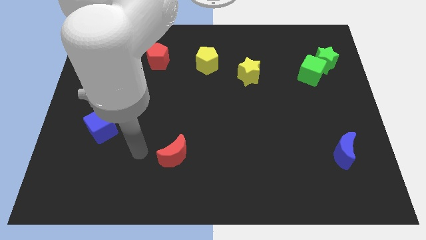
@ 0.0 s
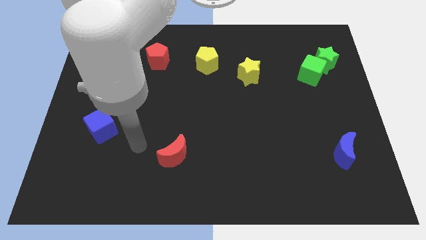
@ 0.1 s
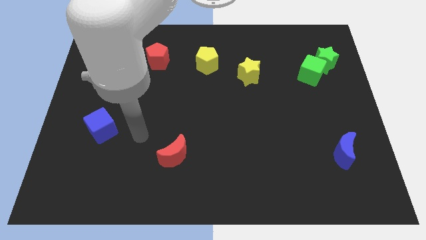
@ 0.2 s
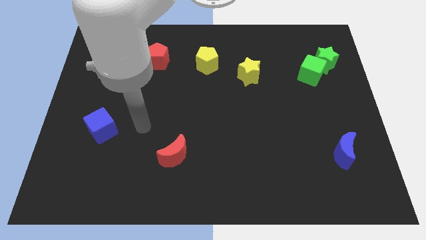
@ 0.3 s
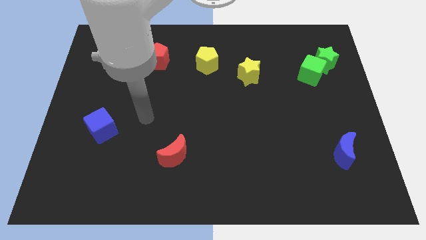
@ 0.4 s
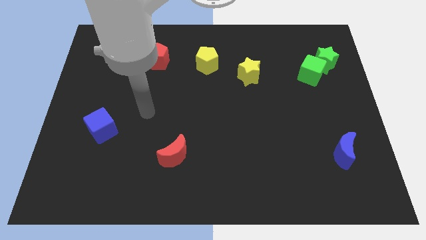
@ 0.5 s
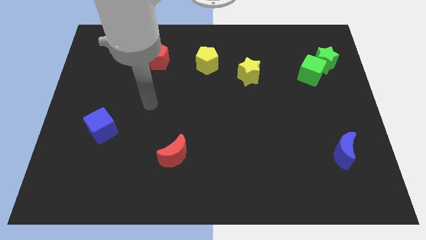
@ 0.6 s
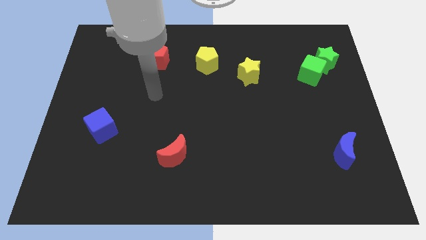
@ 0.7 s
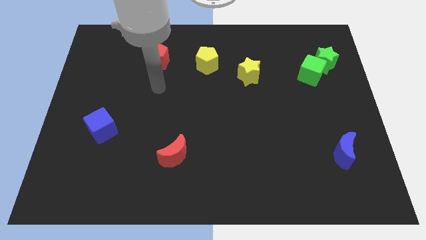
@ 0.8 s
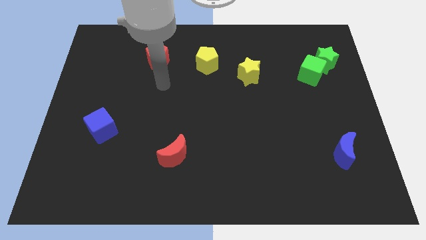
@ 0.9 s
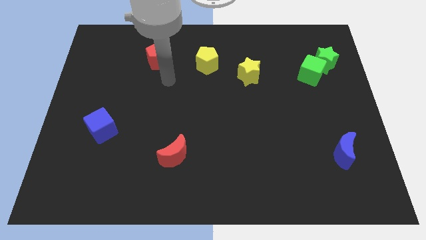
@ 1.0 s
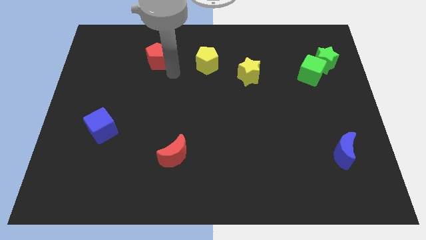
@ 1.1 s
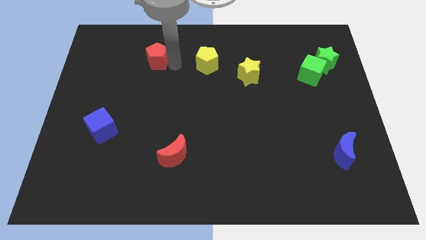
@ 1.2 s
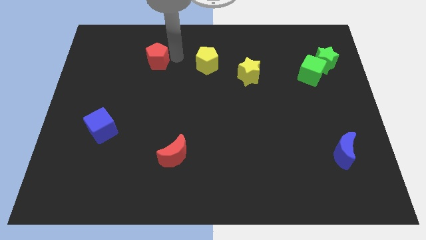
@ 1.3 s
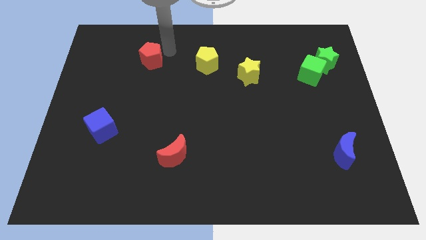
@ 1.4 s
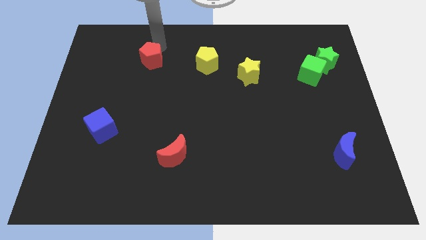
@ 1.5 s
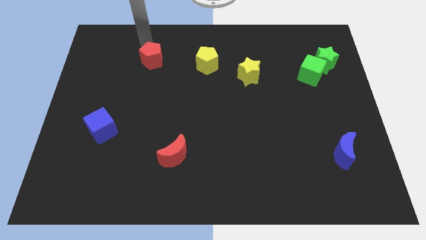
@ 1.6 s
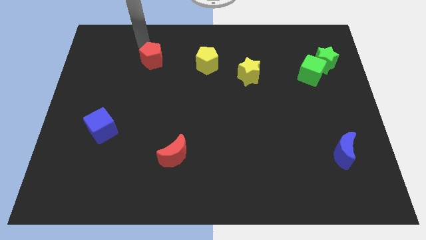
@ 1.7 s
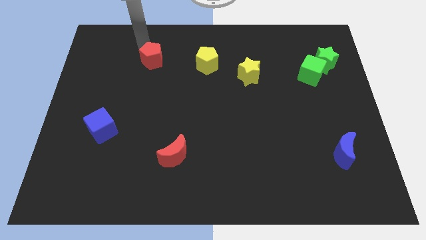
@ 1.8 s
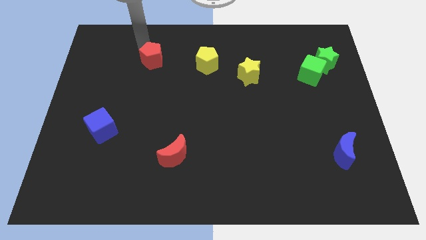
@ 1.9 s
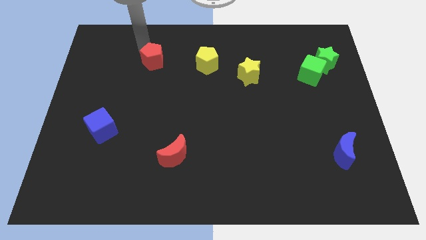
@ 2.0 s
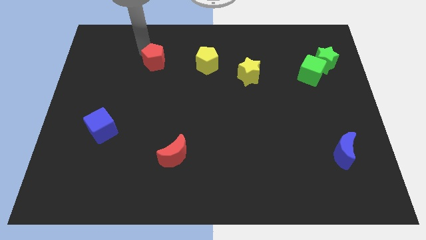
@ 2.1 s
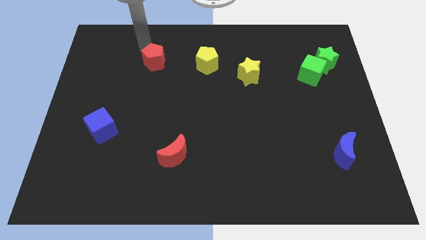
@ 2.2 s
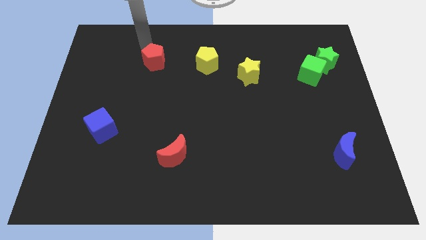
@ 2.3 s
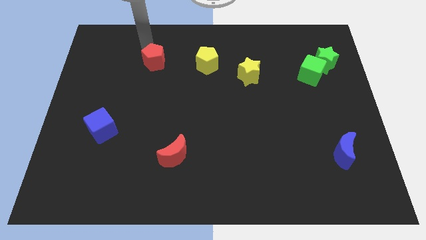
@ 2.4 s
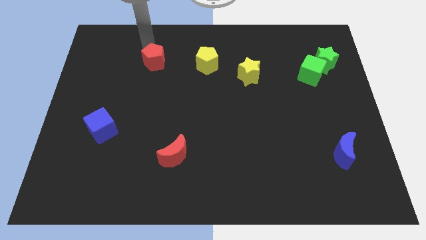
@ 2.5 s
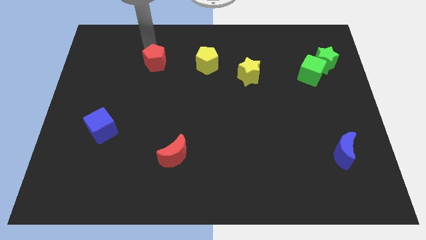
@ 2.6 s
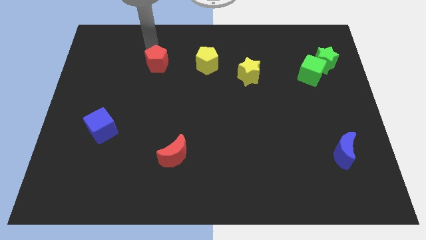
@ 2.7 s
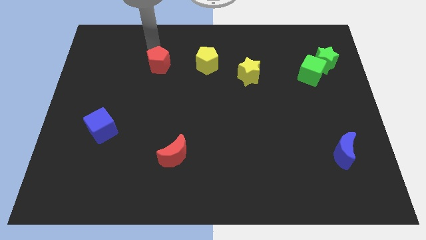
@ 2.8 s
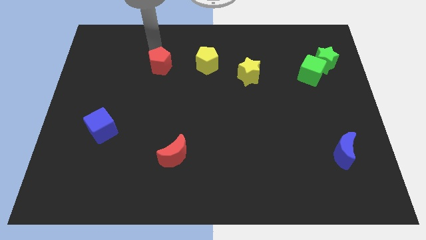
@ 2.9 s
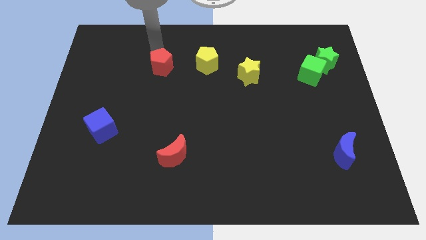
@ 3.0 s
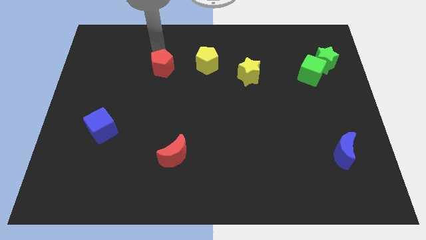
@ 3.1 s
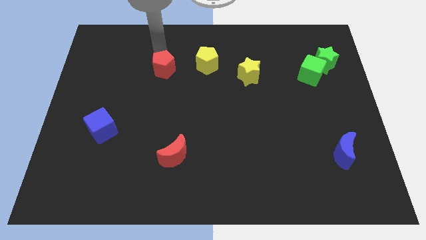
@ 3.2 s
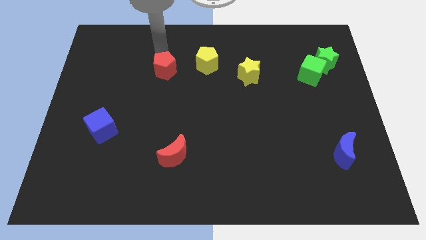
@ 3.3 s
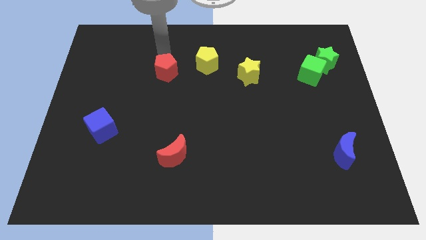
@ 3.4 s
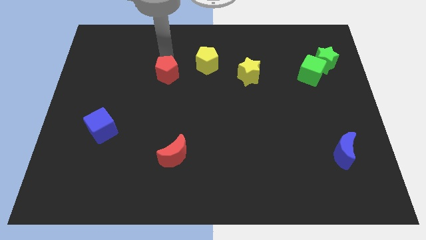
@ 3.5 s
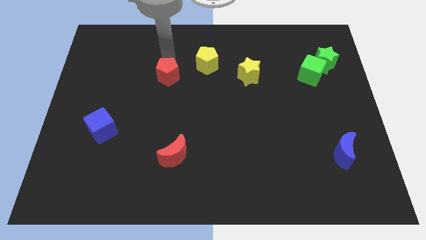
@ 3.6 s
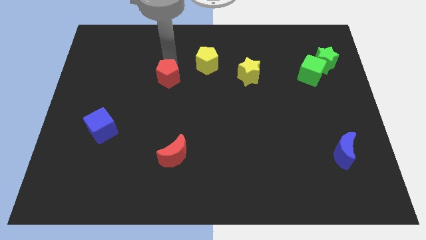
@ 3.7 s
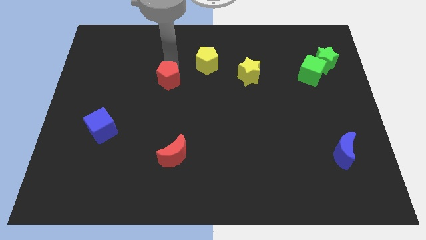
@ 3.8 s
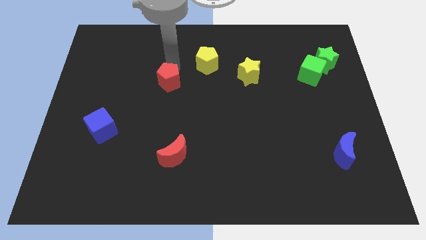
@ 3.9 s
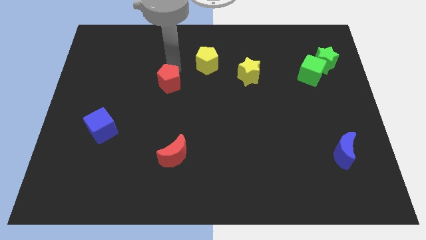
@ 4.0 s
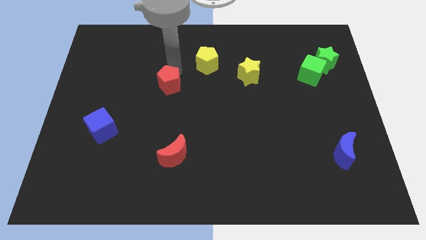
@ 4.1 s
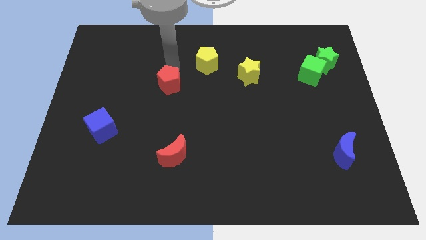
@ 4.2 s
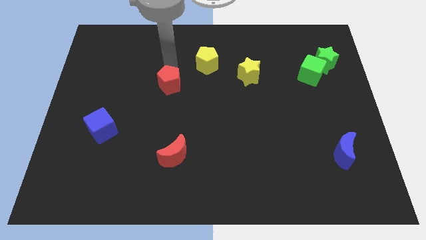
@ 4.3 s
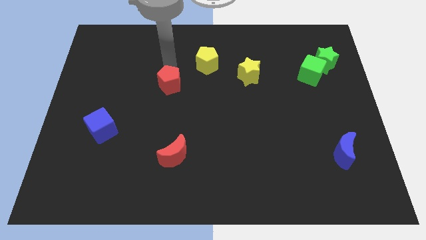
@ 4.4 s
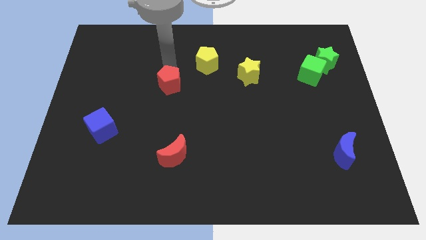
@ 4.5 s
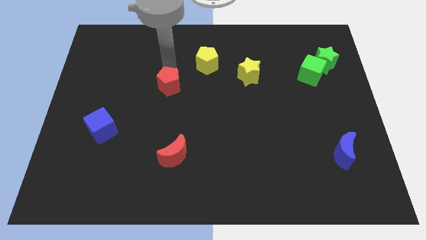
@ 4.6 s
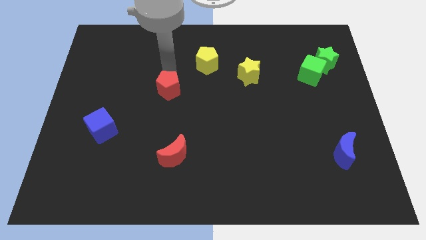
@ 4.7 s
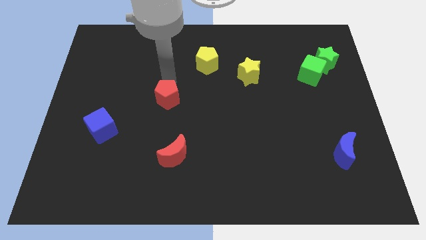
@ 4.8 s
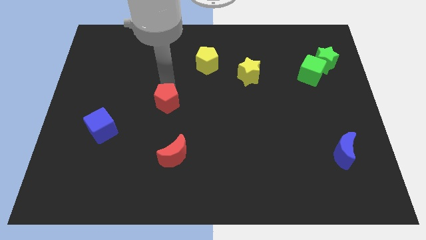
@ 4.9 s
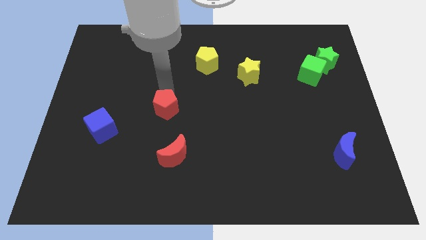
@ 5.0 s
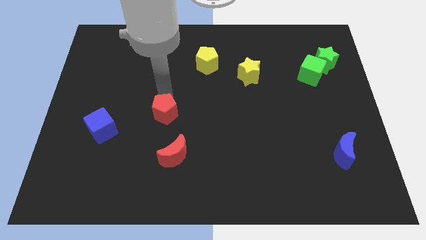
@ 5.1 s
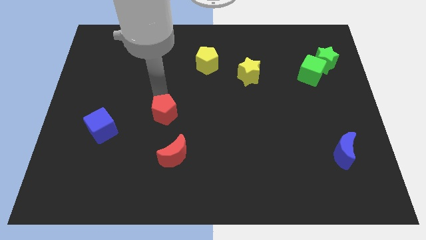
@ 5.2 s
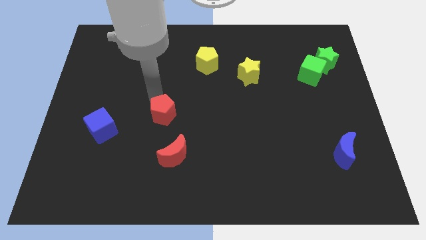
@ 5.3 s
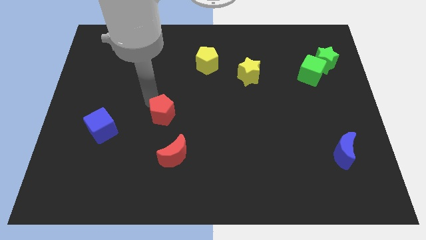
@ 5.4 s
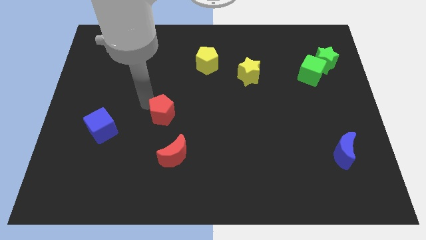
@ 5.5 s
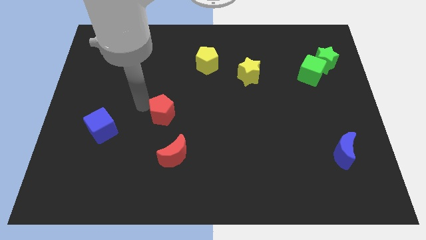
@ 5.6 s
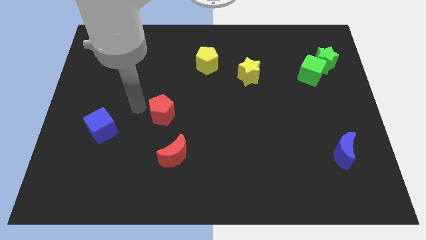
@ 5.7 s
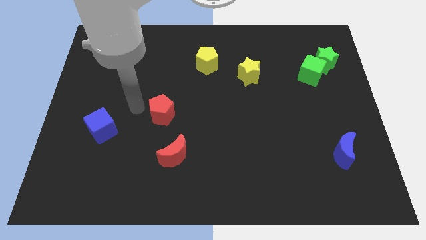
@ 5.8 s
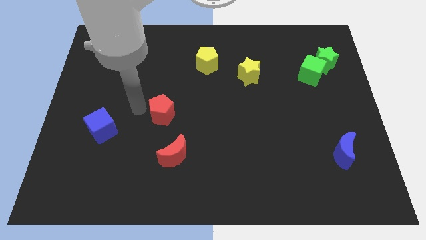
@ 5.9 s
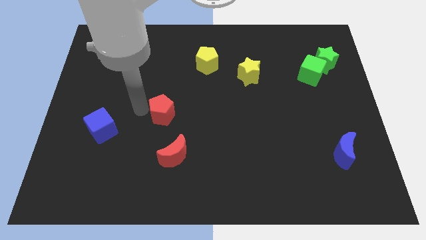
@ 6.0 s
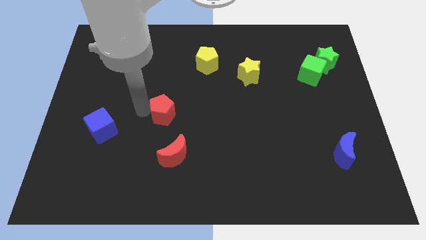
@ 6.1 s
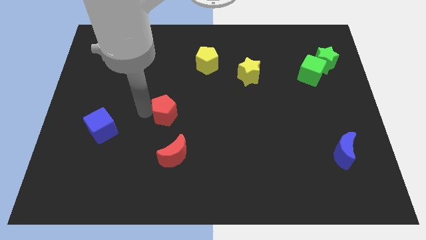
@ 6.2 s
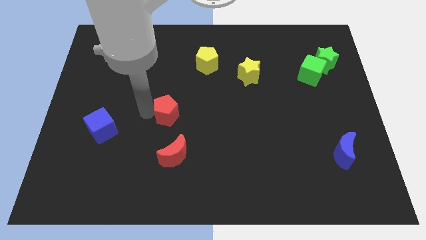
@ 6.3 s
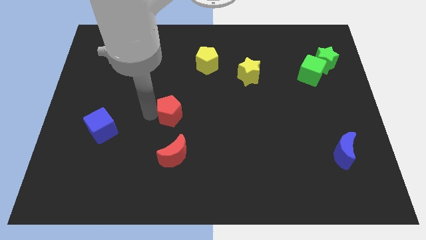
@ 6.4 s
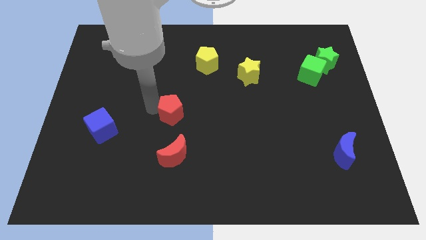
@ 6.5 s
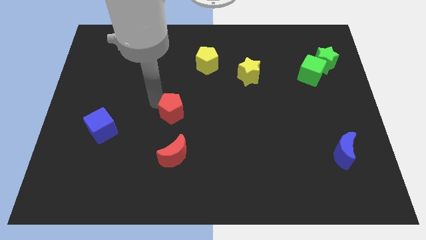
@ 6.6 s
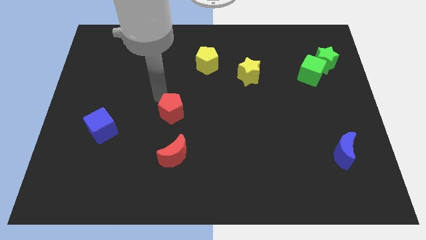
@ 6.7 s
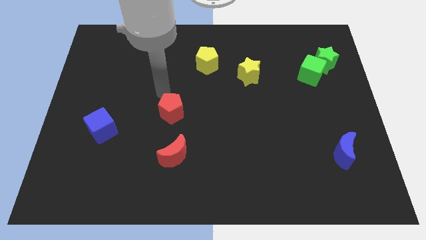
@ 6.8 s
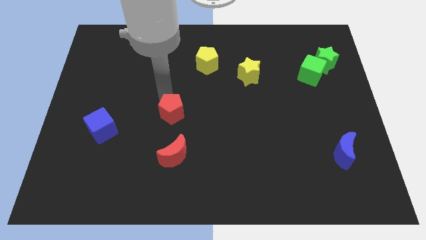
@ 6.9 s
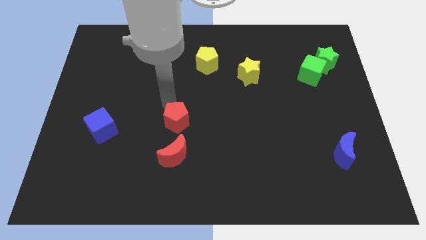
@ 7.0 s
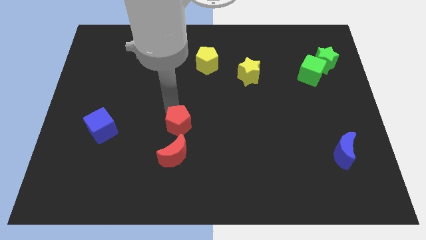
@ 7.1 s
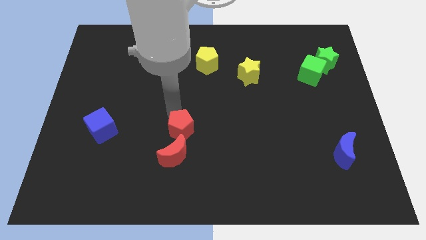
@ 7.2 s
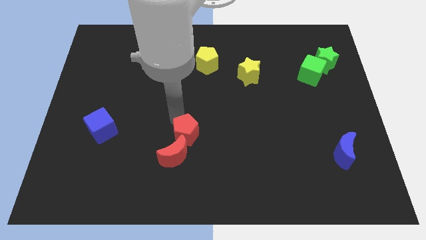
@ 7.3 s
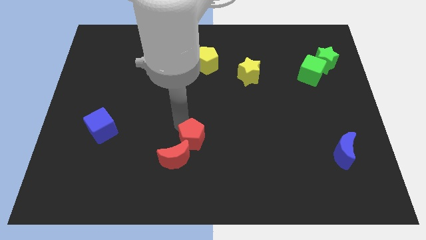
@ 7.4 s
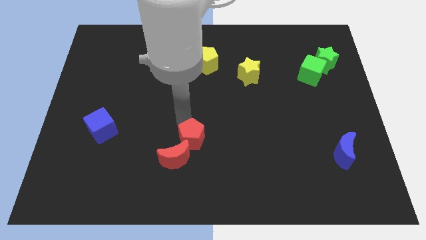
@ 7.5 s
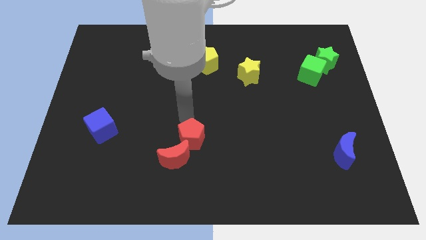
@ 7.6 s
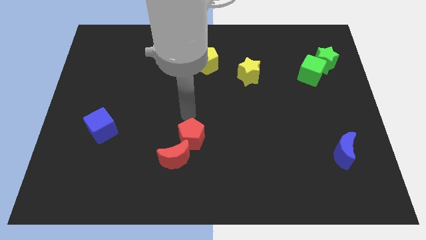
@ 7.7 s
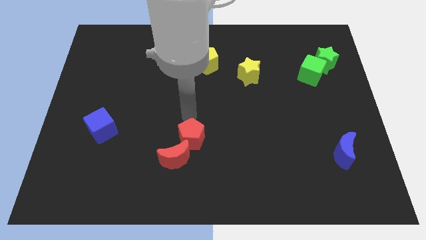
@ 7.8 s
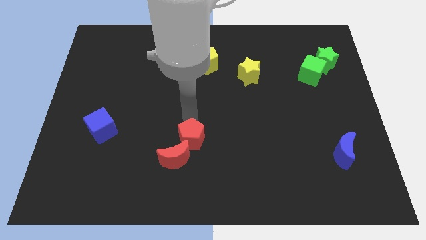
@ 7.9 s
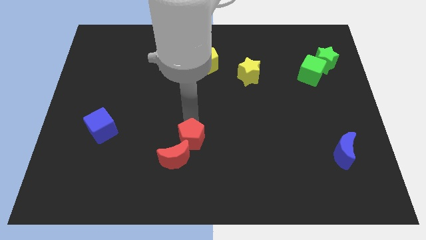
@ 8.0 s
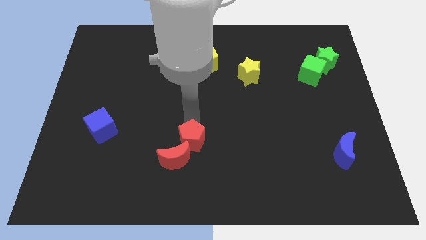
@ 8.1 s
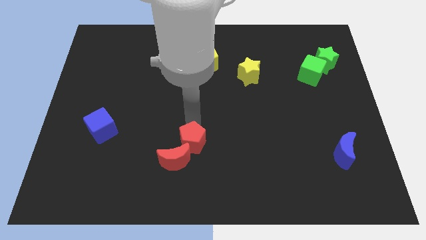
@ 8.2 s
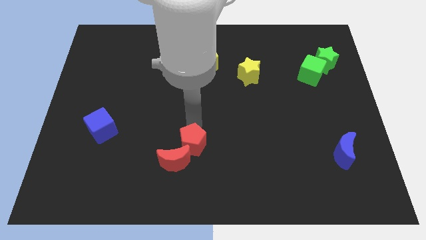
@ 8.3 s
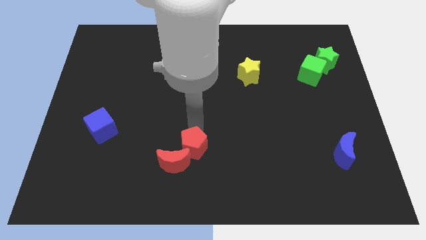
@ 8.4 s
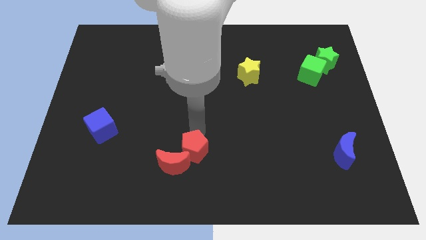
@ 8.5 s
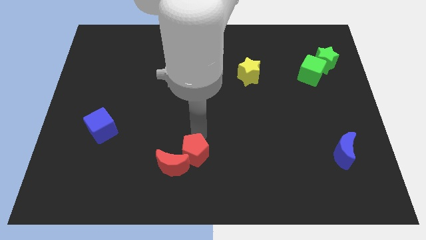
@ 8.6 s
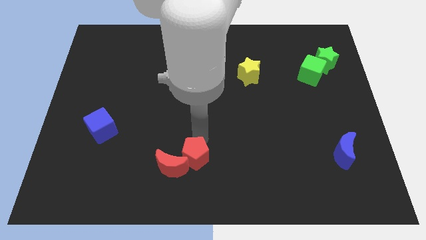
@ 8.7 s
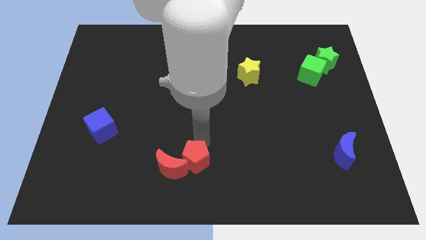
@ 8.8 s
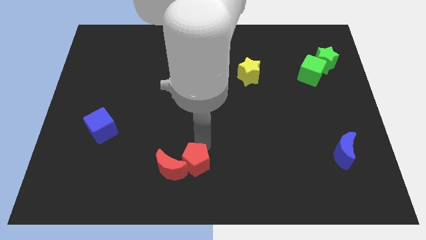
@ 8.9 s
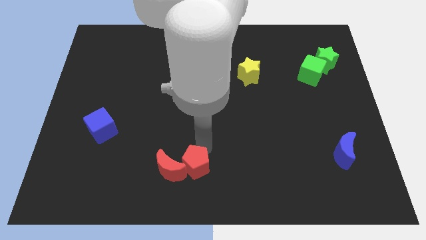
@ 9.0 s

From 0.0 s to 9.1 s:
move the red pentagon diagonally down and to the right of the red moon
